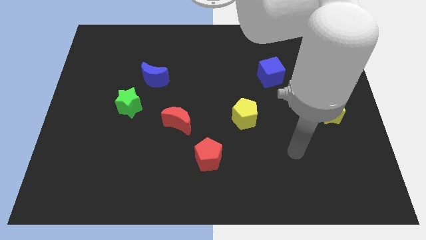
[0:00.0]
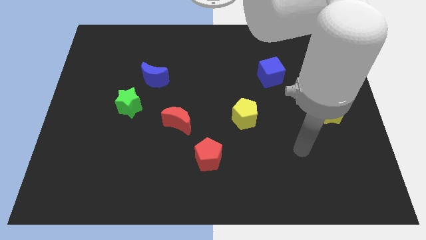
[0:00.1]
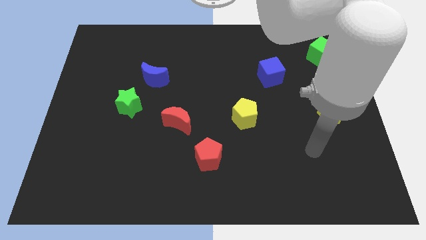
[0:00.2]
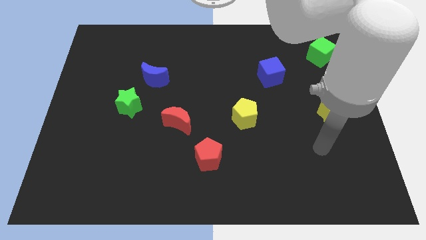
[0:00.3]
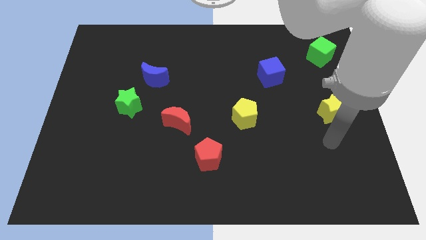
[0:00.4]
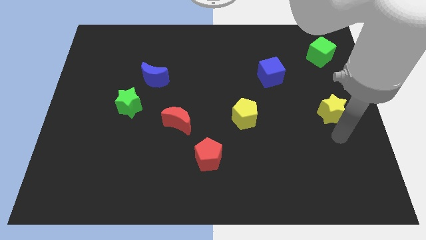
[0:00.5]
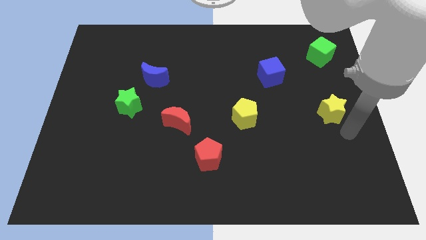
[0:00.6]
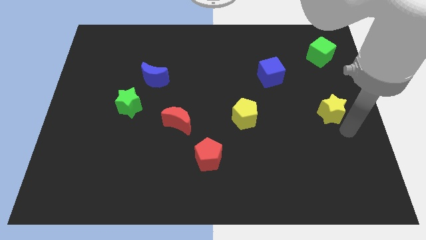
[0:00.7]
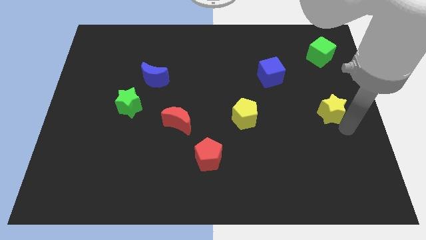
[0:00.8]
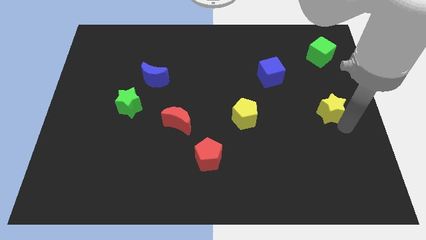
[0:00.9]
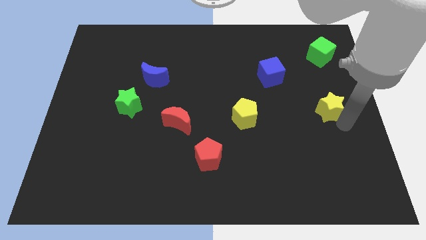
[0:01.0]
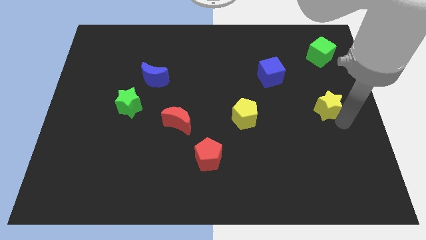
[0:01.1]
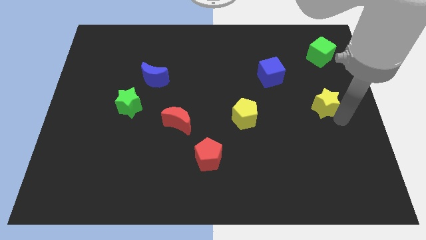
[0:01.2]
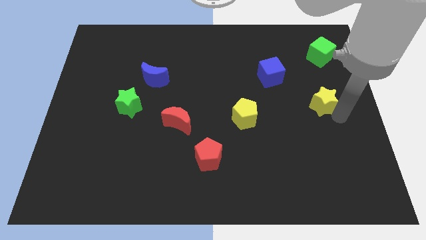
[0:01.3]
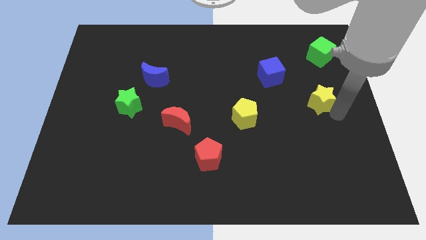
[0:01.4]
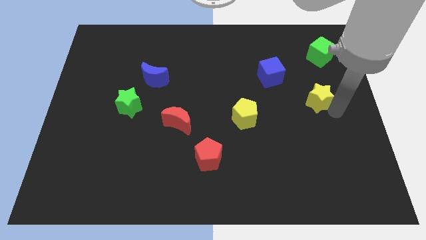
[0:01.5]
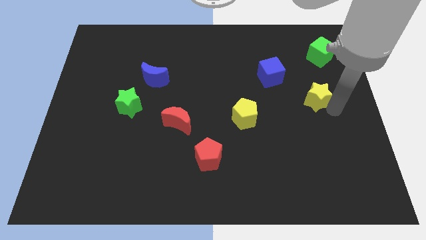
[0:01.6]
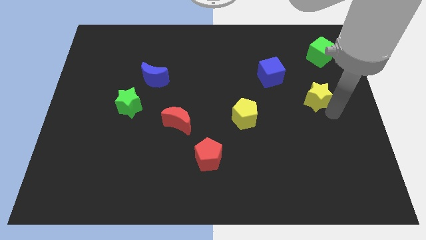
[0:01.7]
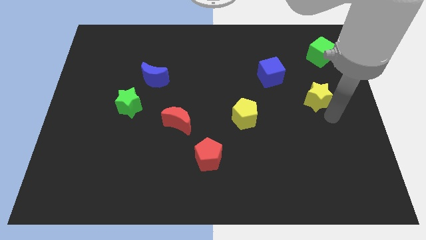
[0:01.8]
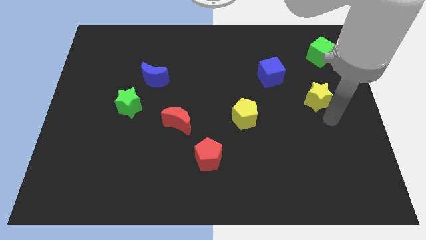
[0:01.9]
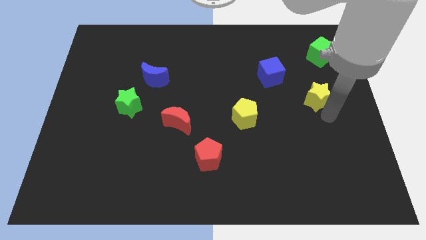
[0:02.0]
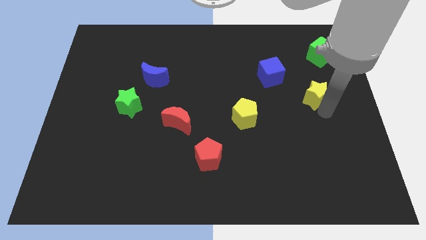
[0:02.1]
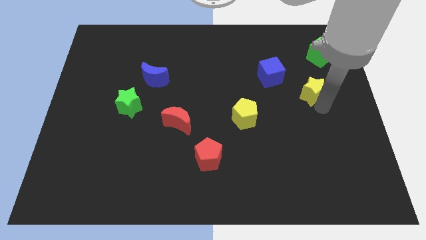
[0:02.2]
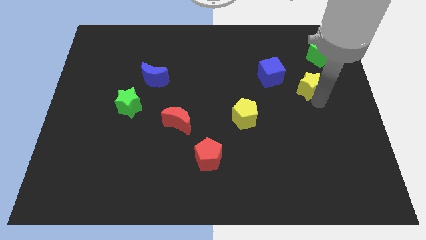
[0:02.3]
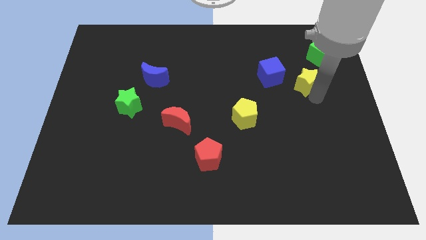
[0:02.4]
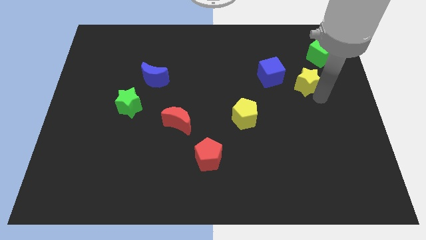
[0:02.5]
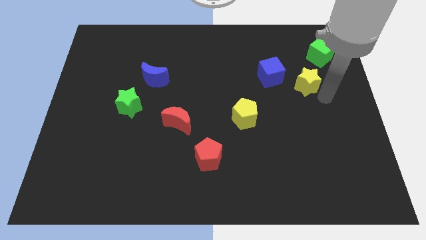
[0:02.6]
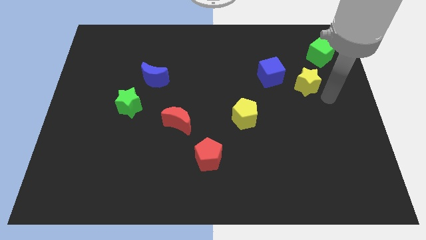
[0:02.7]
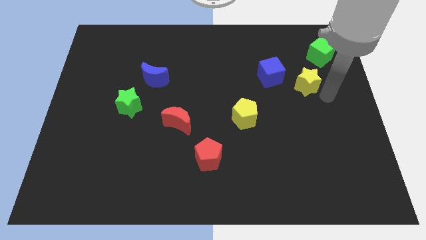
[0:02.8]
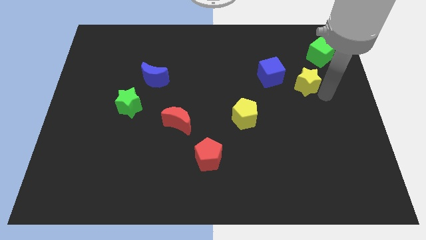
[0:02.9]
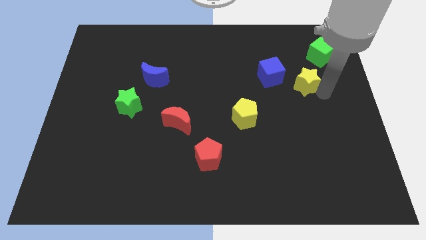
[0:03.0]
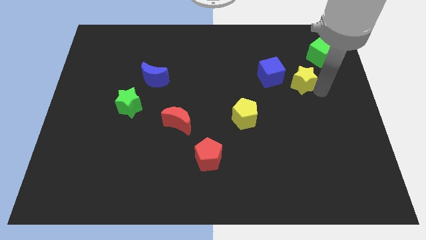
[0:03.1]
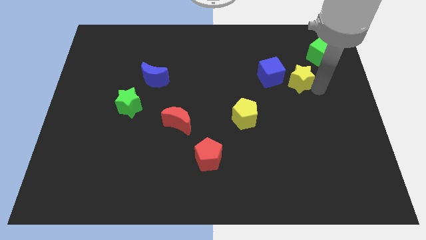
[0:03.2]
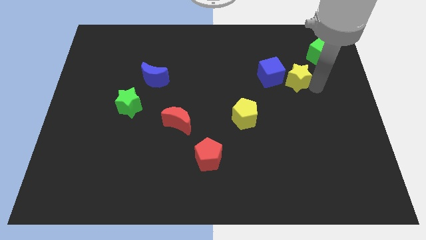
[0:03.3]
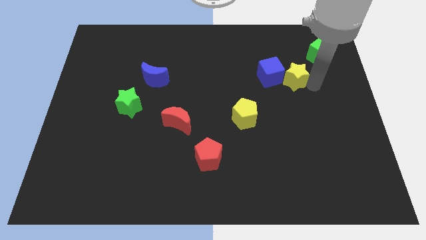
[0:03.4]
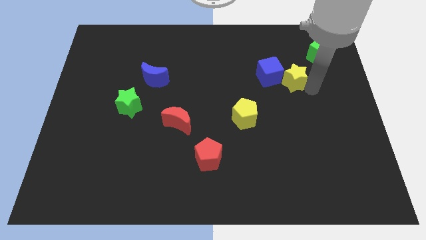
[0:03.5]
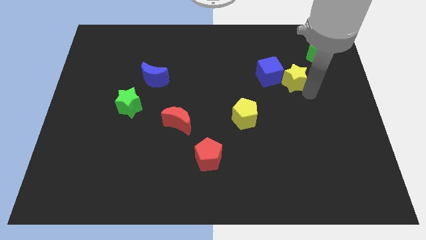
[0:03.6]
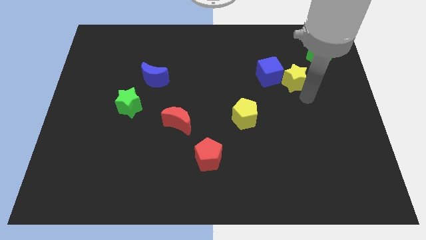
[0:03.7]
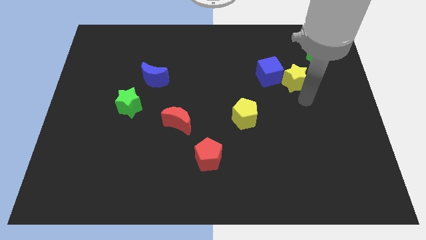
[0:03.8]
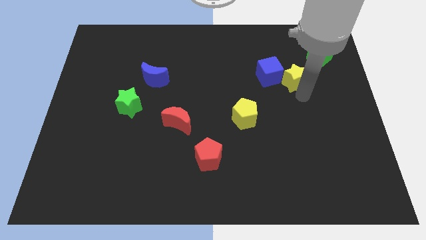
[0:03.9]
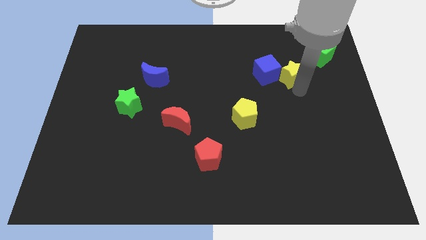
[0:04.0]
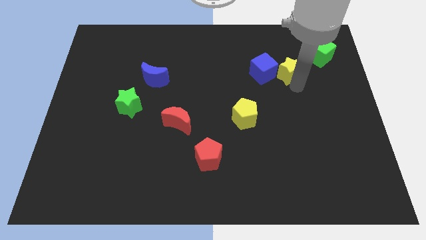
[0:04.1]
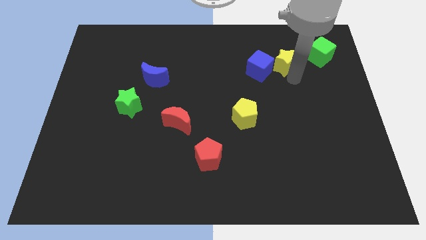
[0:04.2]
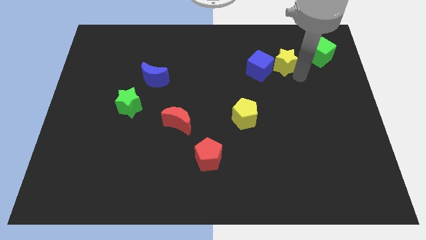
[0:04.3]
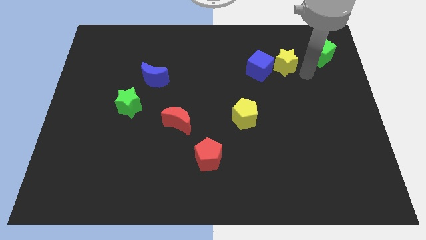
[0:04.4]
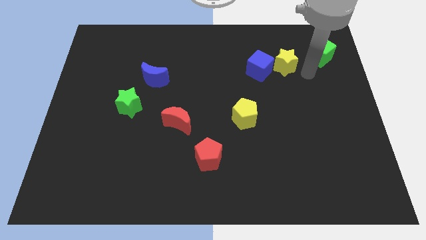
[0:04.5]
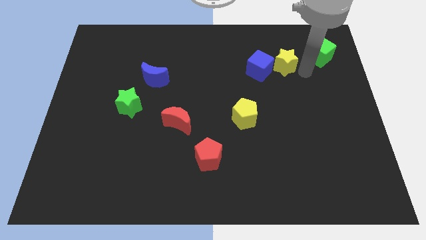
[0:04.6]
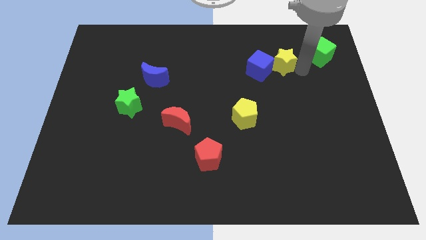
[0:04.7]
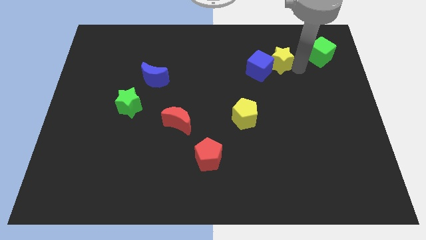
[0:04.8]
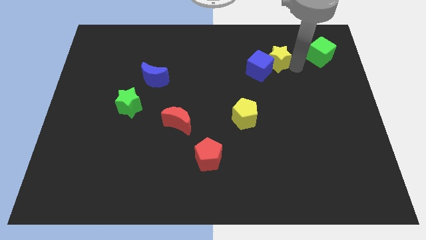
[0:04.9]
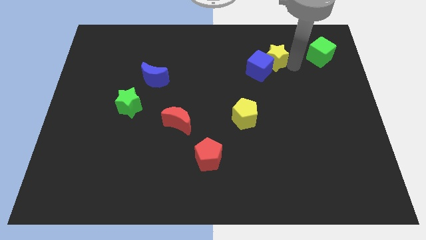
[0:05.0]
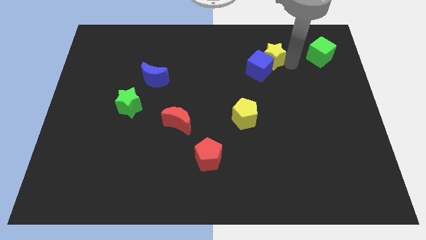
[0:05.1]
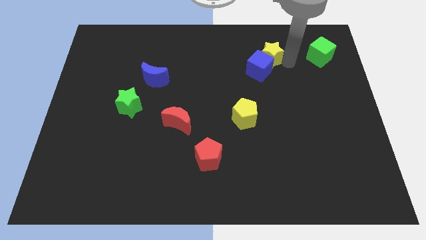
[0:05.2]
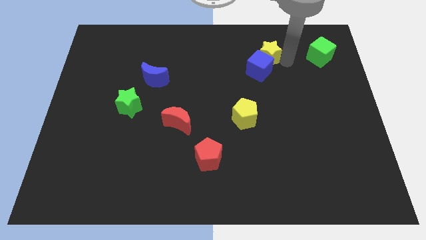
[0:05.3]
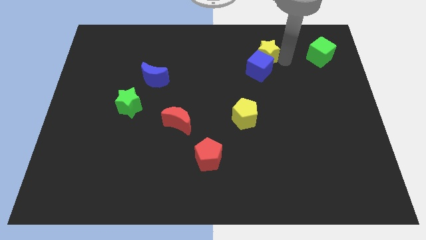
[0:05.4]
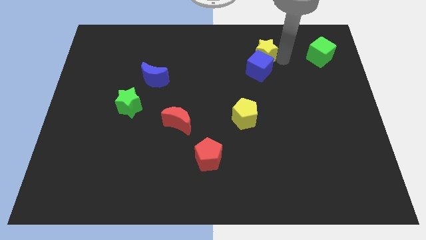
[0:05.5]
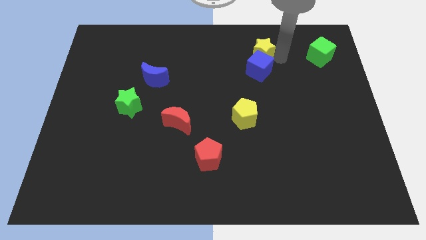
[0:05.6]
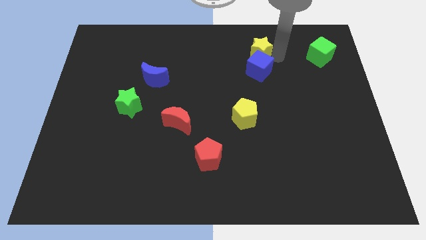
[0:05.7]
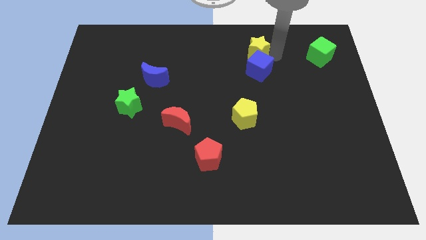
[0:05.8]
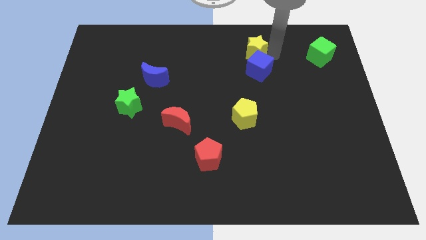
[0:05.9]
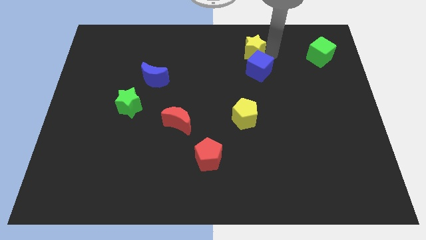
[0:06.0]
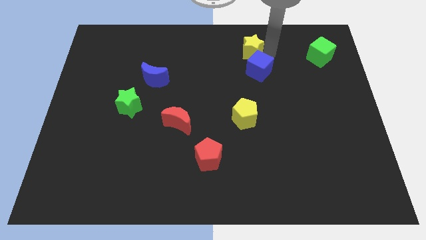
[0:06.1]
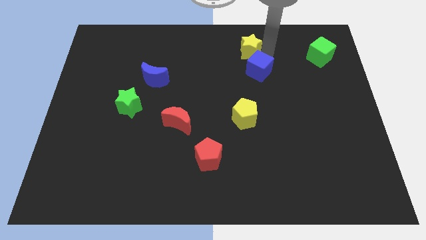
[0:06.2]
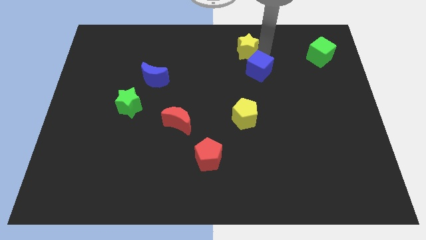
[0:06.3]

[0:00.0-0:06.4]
slide the yellow star to the top side

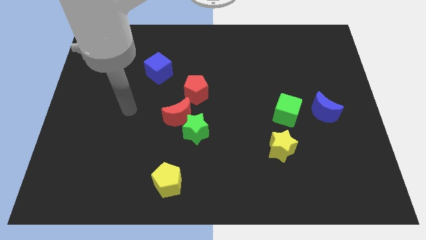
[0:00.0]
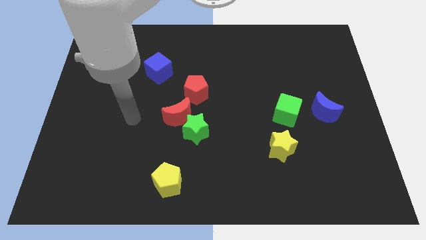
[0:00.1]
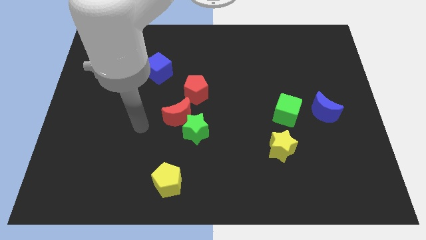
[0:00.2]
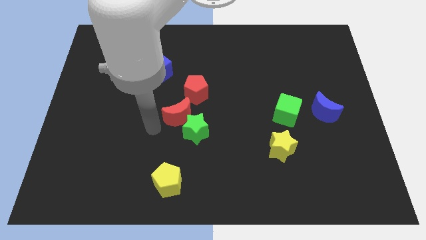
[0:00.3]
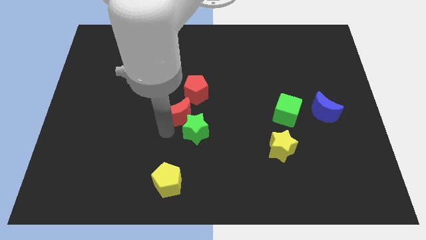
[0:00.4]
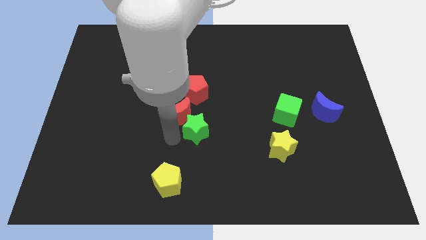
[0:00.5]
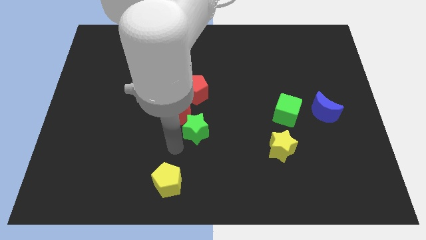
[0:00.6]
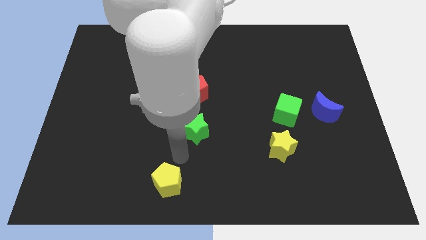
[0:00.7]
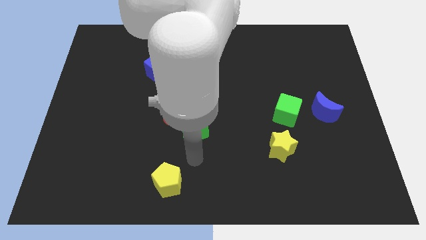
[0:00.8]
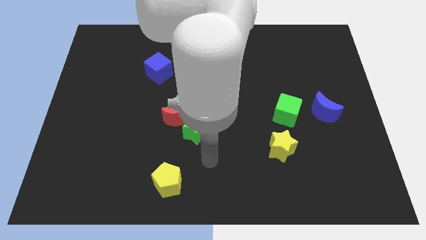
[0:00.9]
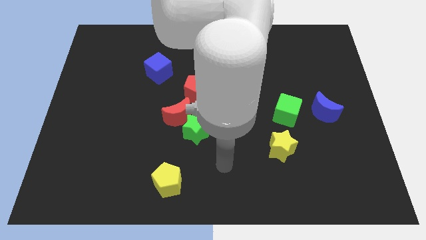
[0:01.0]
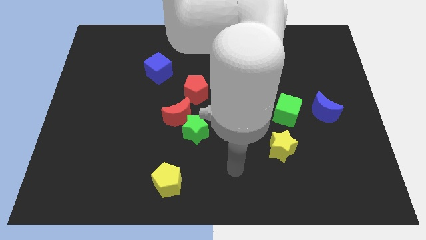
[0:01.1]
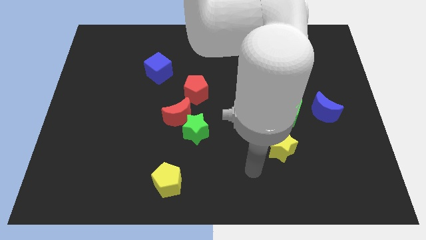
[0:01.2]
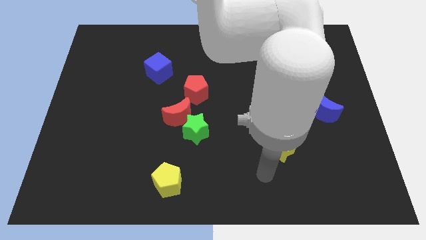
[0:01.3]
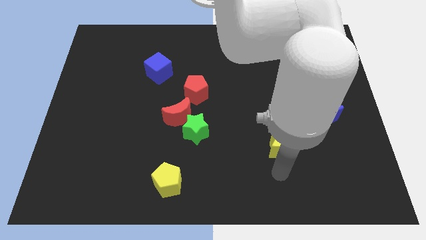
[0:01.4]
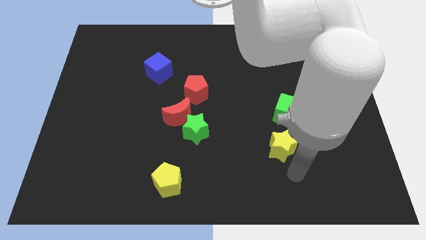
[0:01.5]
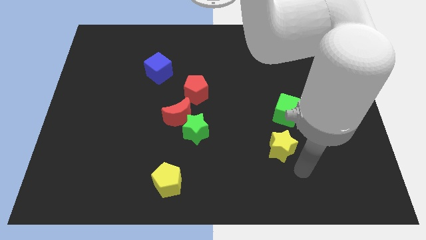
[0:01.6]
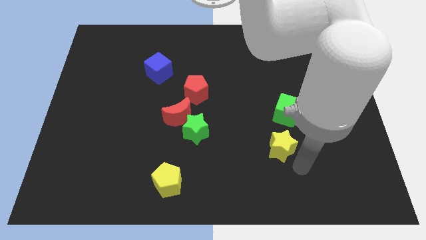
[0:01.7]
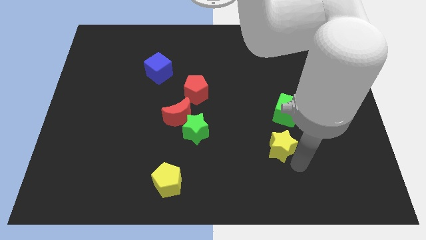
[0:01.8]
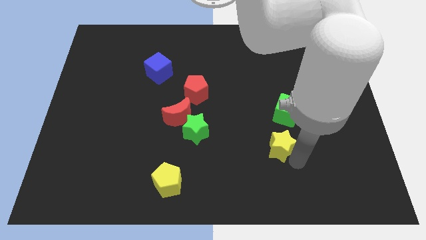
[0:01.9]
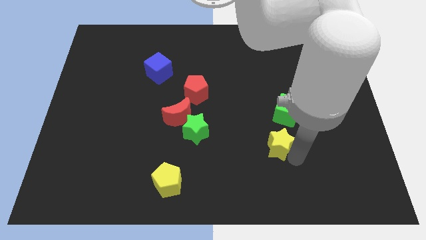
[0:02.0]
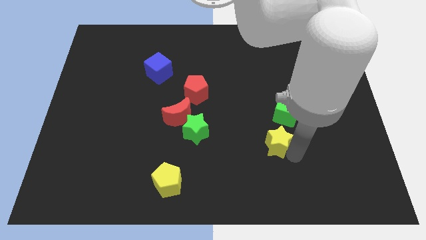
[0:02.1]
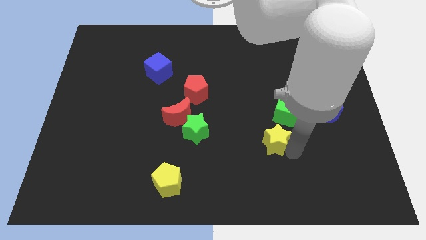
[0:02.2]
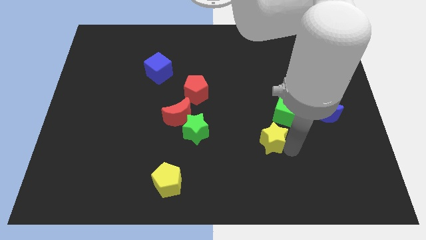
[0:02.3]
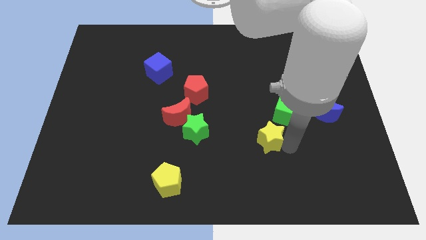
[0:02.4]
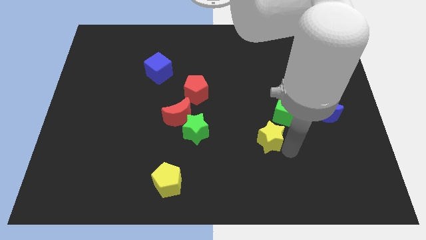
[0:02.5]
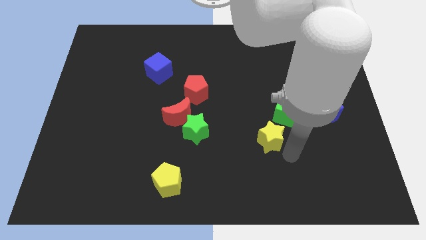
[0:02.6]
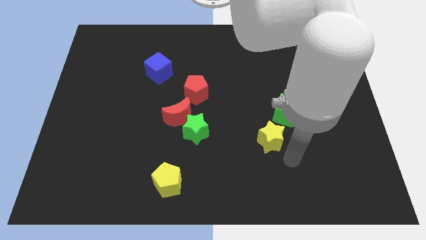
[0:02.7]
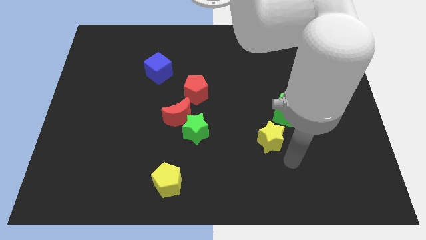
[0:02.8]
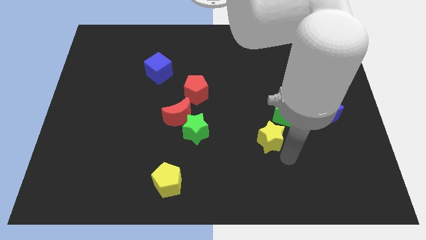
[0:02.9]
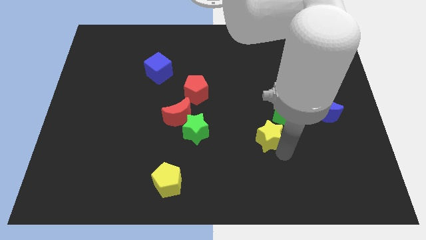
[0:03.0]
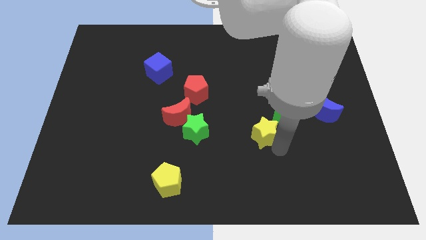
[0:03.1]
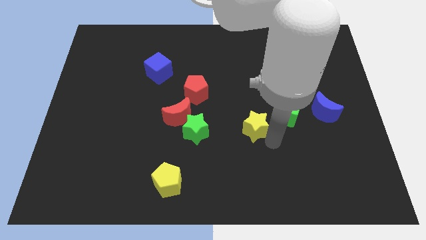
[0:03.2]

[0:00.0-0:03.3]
move the yellow star to the center of the board
